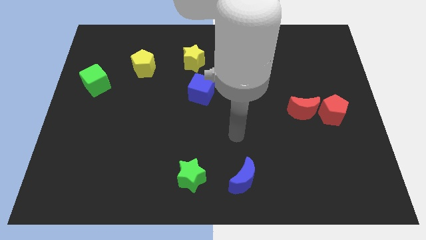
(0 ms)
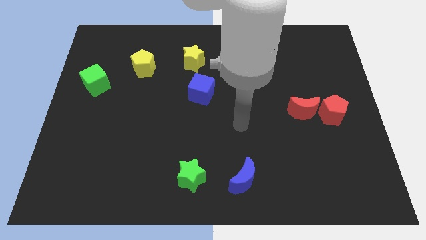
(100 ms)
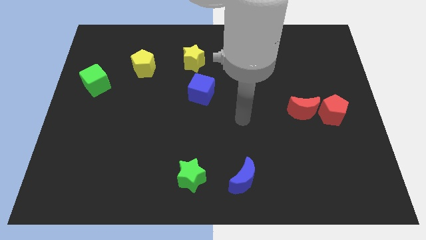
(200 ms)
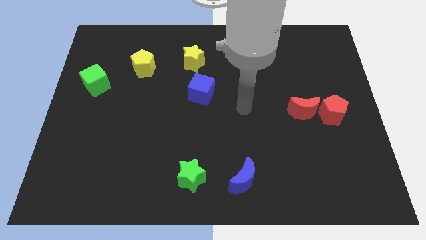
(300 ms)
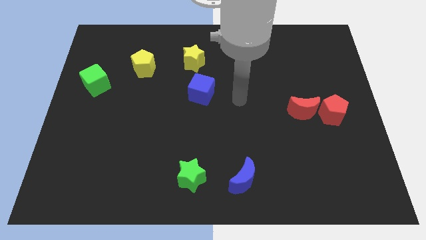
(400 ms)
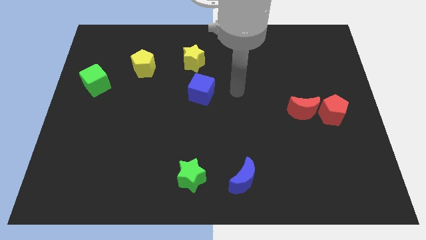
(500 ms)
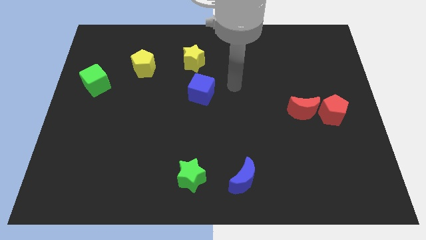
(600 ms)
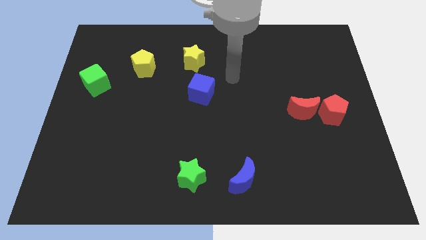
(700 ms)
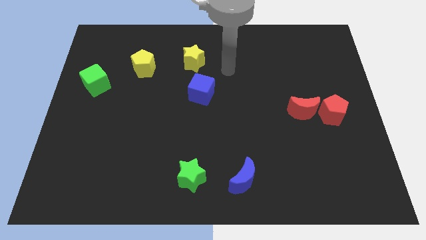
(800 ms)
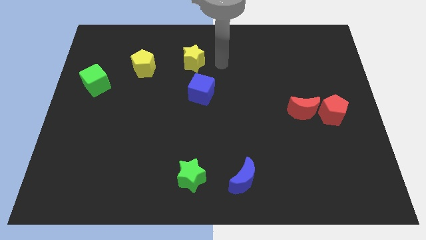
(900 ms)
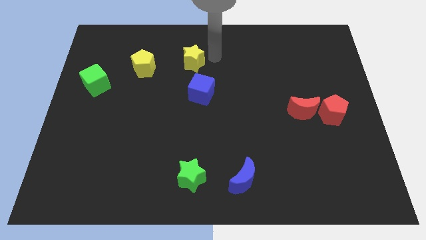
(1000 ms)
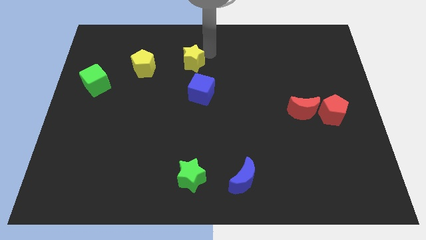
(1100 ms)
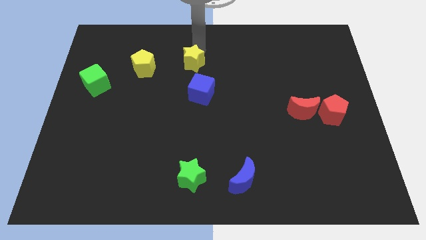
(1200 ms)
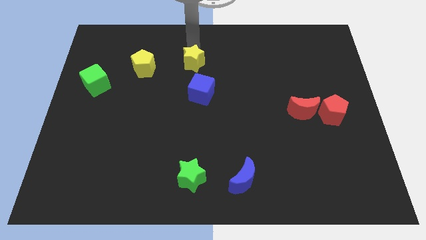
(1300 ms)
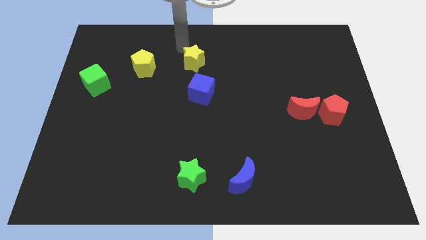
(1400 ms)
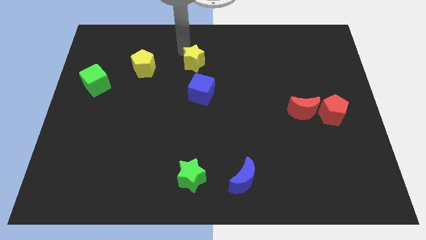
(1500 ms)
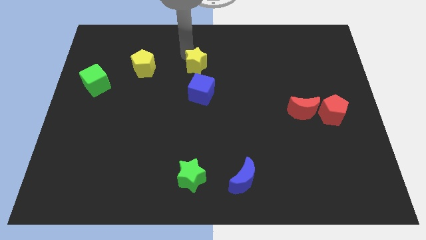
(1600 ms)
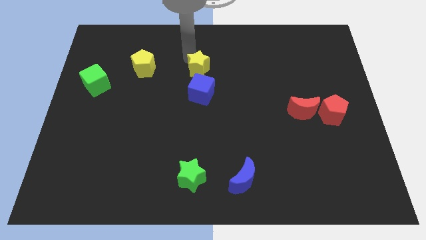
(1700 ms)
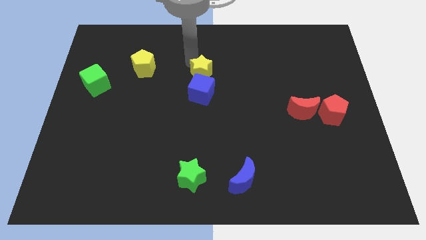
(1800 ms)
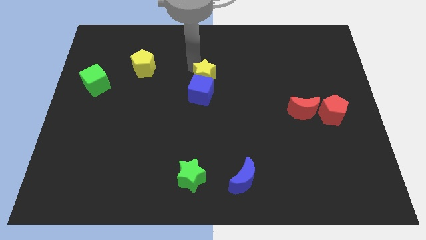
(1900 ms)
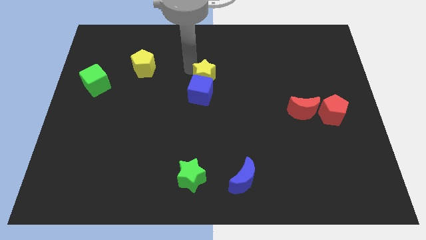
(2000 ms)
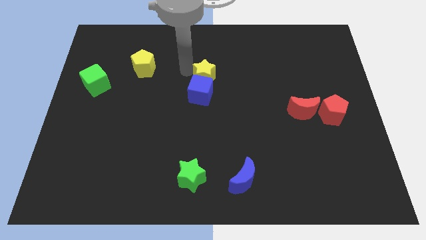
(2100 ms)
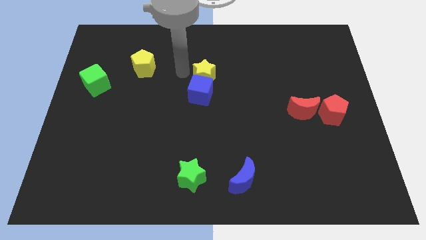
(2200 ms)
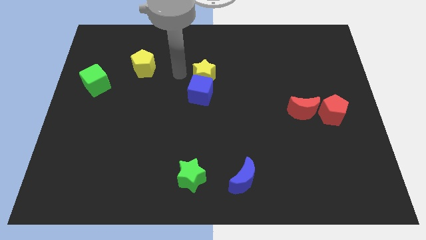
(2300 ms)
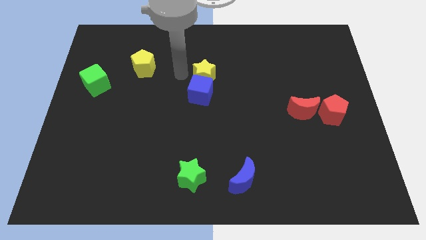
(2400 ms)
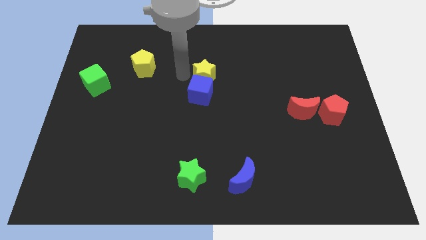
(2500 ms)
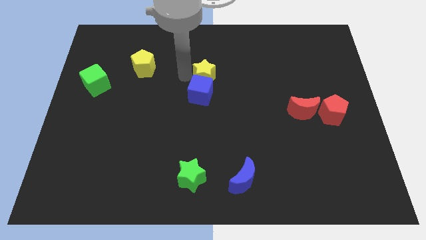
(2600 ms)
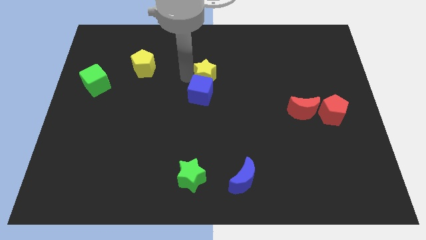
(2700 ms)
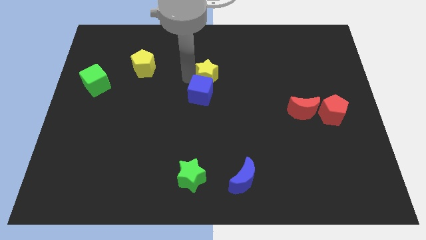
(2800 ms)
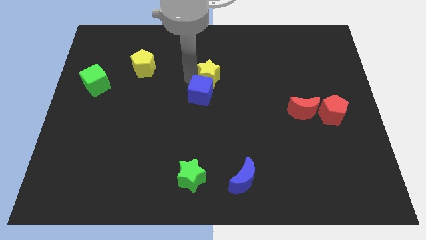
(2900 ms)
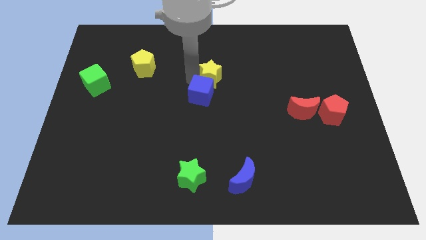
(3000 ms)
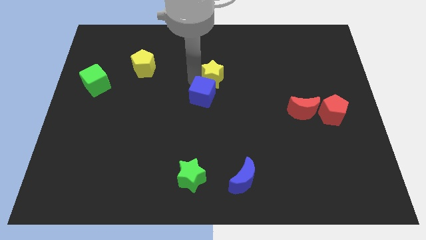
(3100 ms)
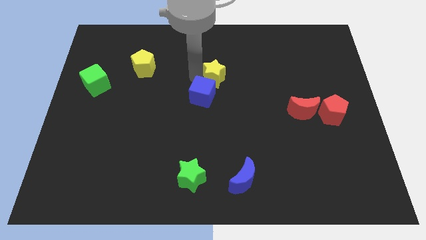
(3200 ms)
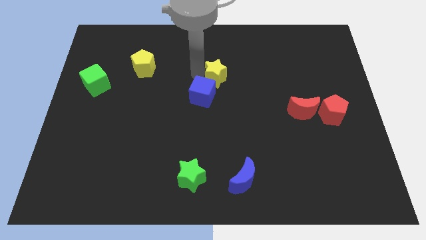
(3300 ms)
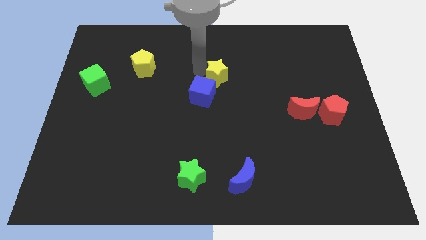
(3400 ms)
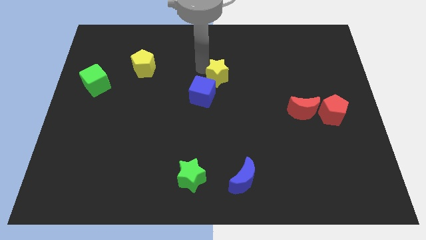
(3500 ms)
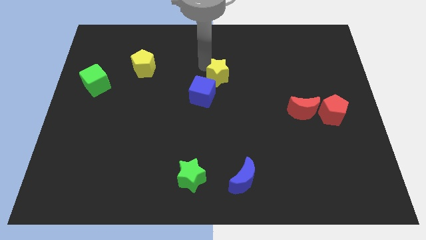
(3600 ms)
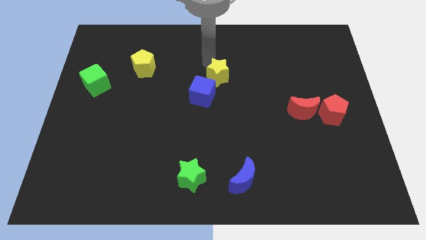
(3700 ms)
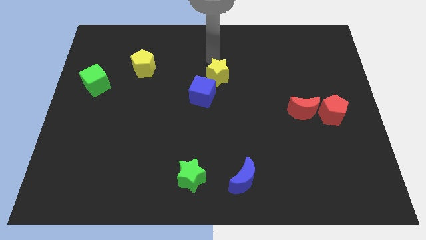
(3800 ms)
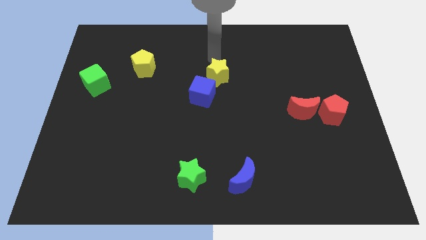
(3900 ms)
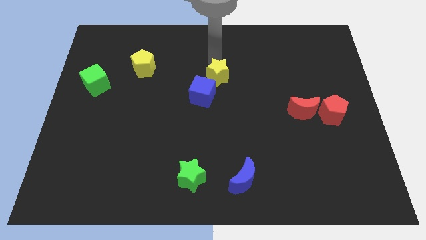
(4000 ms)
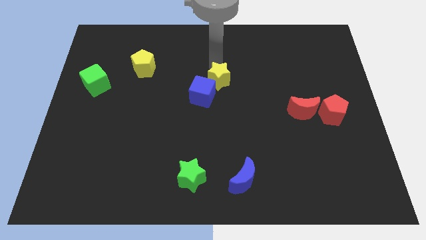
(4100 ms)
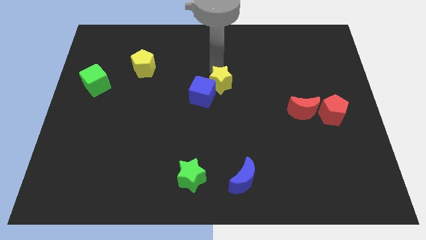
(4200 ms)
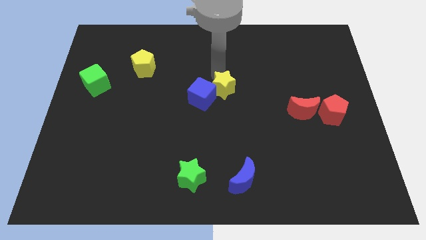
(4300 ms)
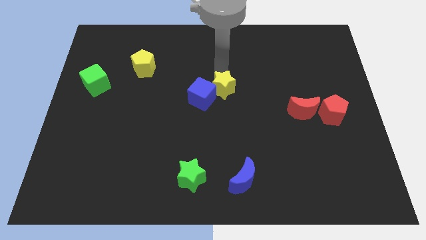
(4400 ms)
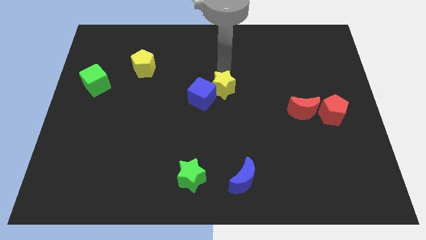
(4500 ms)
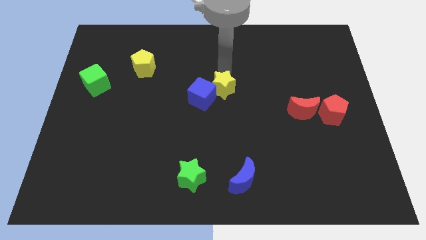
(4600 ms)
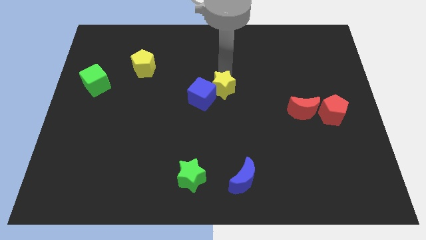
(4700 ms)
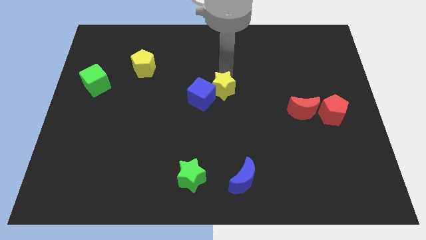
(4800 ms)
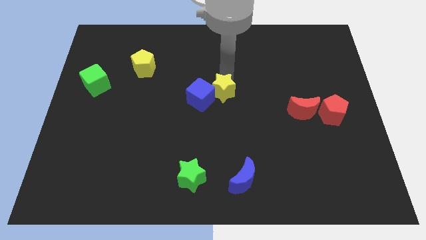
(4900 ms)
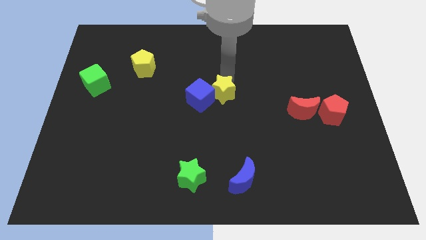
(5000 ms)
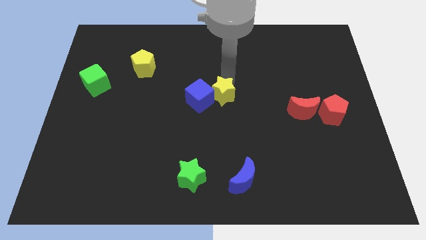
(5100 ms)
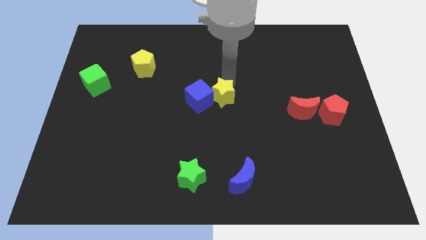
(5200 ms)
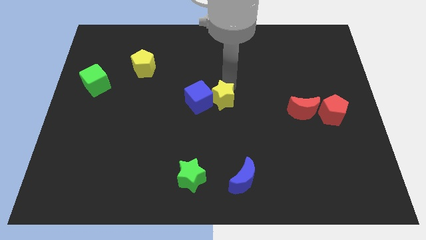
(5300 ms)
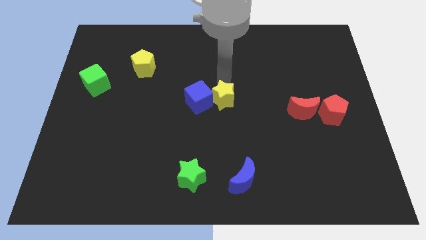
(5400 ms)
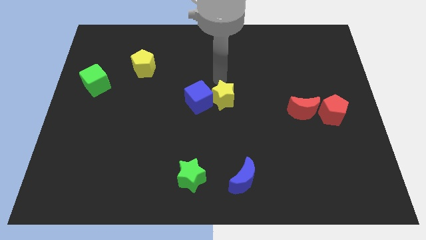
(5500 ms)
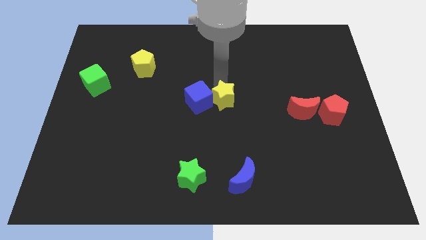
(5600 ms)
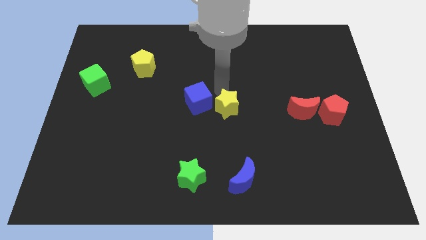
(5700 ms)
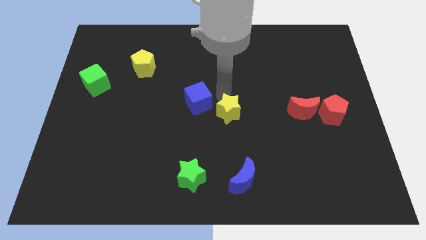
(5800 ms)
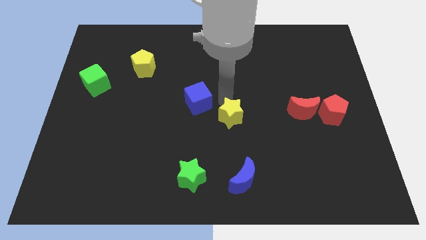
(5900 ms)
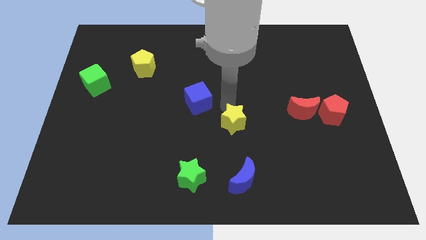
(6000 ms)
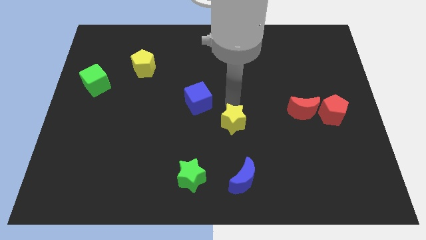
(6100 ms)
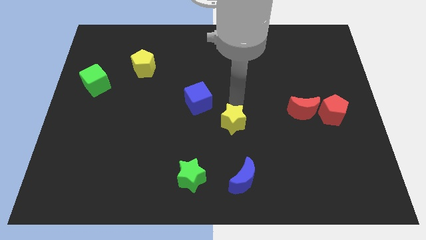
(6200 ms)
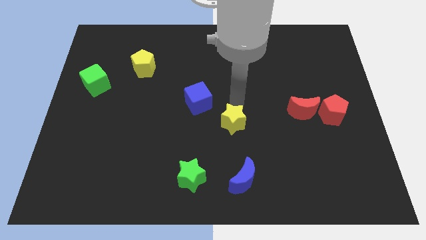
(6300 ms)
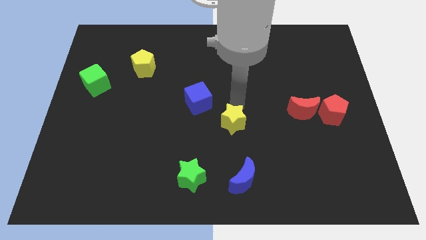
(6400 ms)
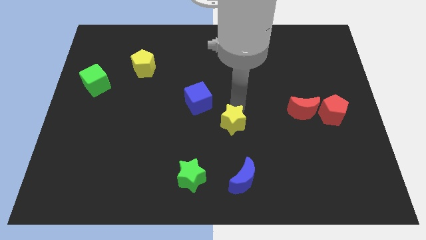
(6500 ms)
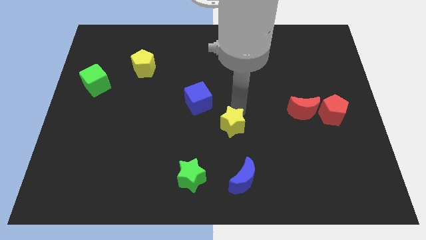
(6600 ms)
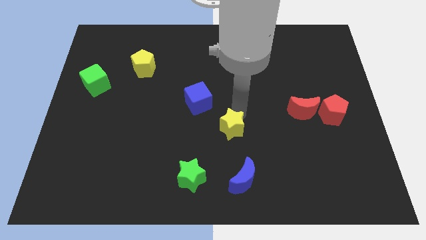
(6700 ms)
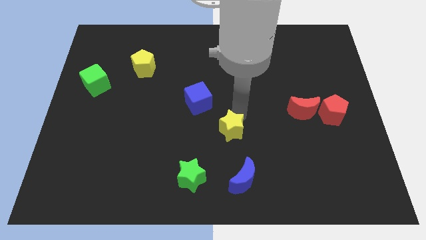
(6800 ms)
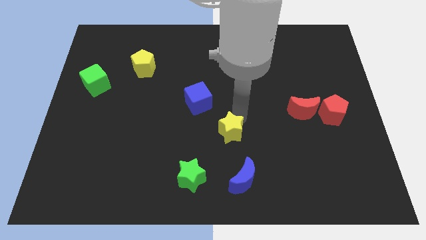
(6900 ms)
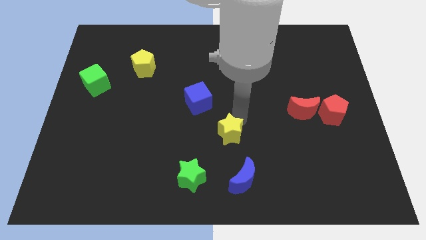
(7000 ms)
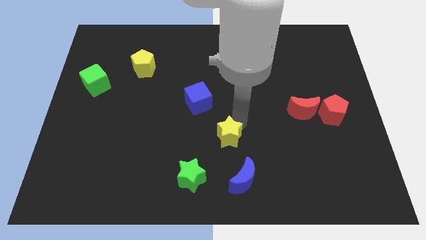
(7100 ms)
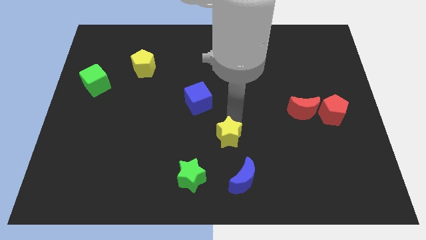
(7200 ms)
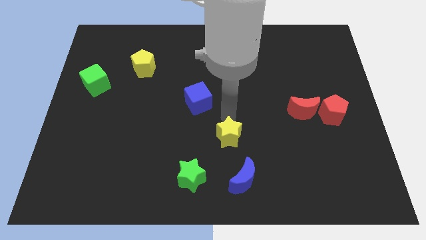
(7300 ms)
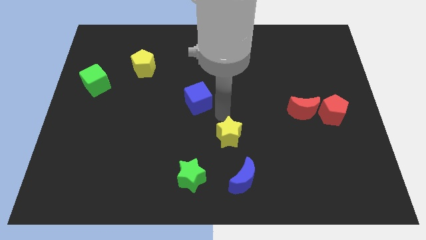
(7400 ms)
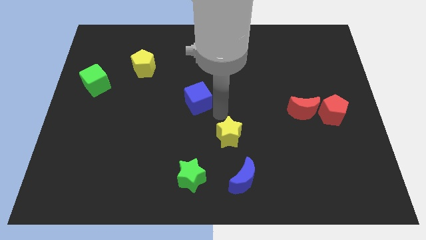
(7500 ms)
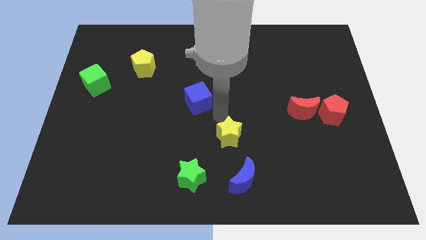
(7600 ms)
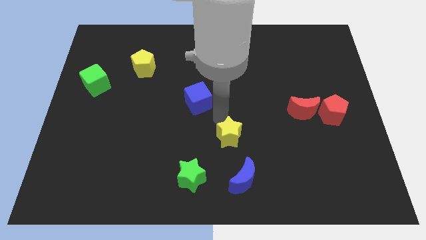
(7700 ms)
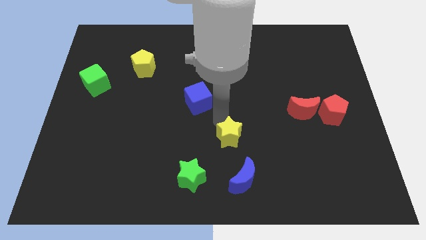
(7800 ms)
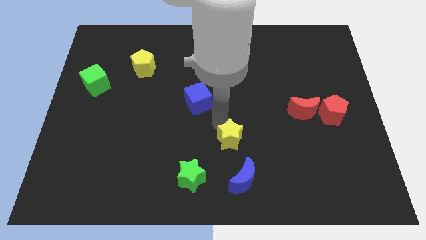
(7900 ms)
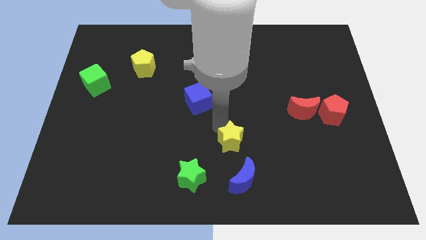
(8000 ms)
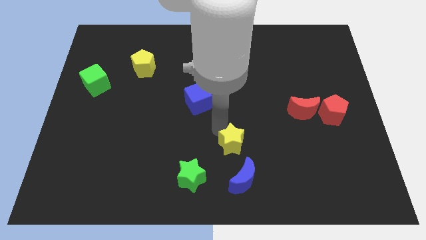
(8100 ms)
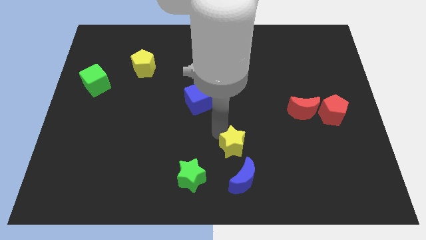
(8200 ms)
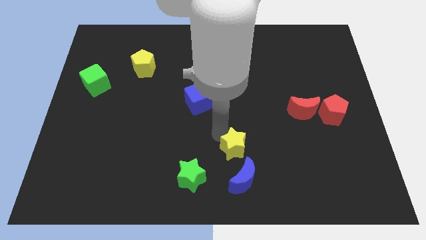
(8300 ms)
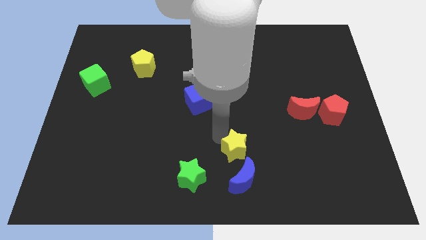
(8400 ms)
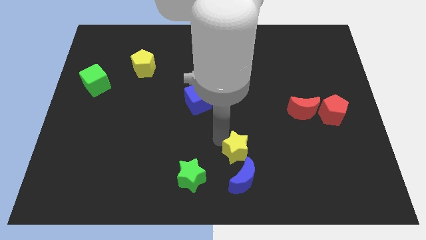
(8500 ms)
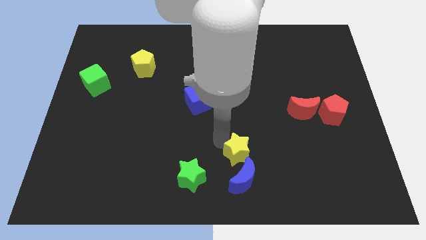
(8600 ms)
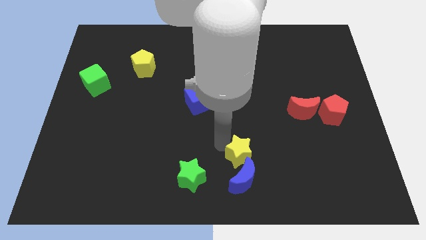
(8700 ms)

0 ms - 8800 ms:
slide the yellow star to the blue moon
